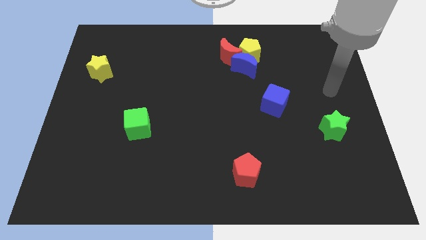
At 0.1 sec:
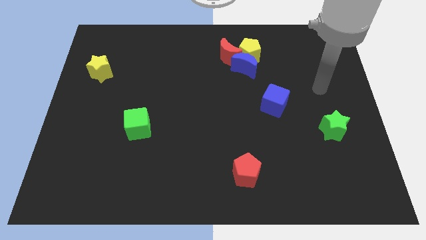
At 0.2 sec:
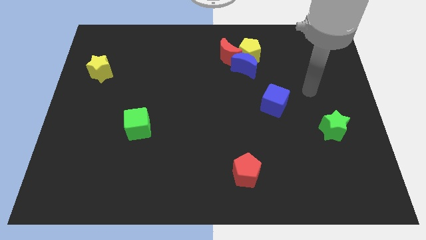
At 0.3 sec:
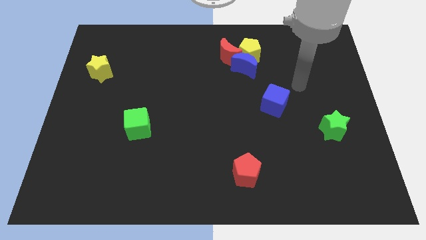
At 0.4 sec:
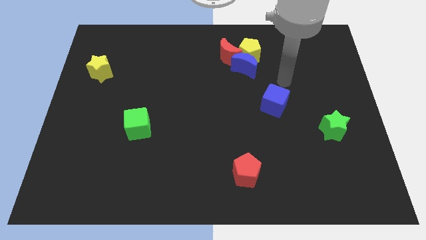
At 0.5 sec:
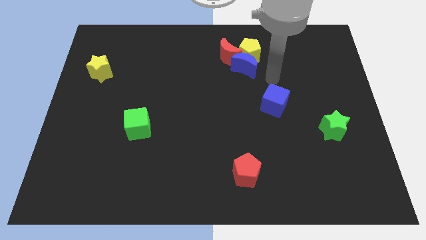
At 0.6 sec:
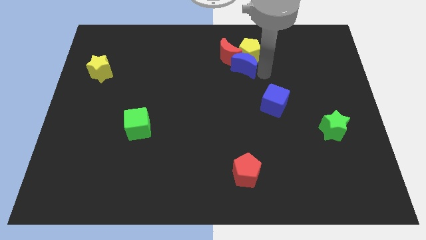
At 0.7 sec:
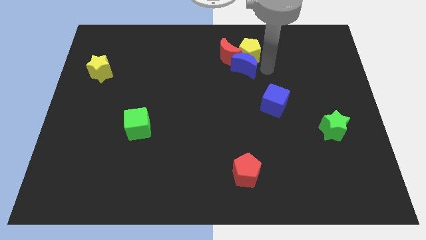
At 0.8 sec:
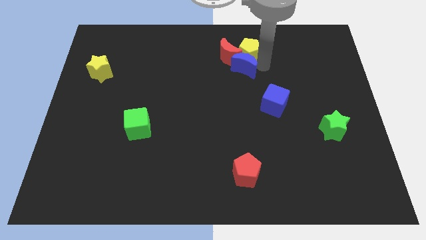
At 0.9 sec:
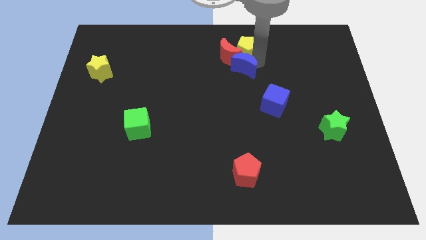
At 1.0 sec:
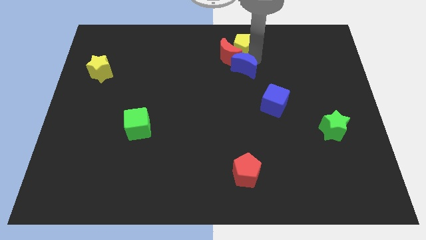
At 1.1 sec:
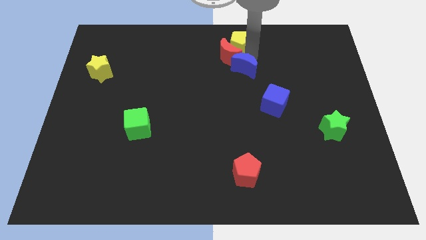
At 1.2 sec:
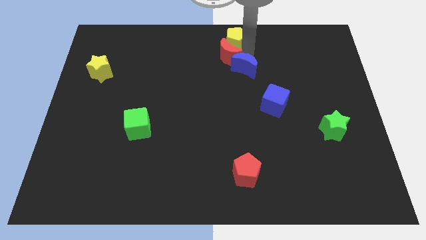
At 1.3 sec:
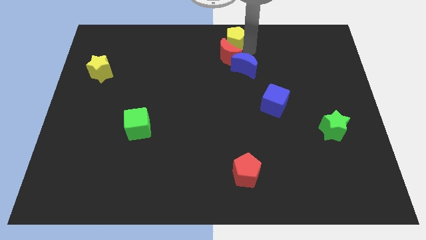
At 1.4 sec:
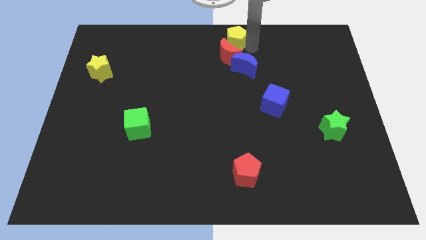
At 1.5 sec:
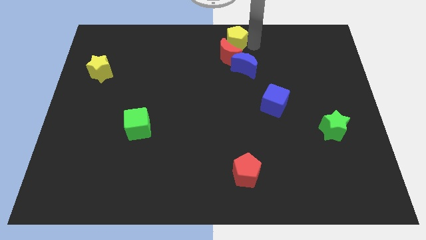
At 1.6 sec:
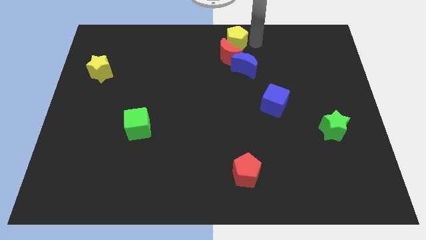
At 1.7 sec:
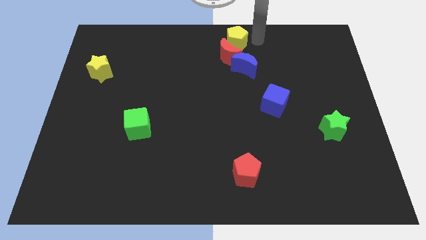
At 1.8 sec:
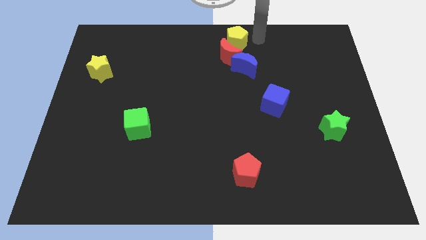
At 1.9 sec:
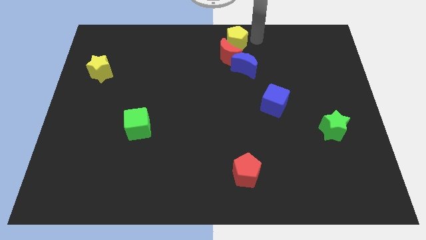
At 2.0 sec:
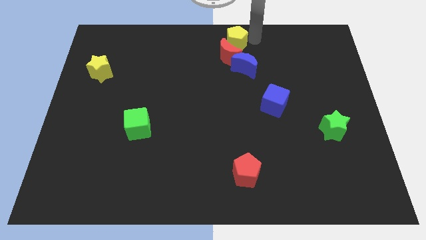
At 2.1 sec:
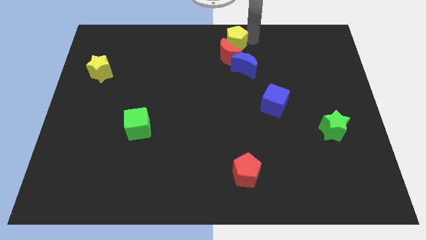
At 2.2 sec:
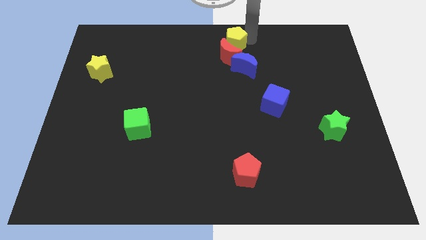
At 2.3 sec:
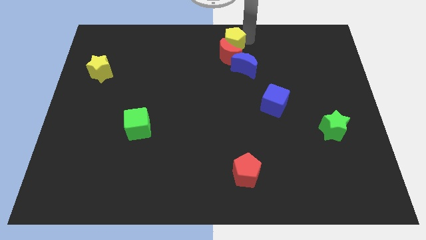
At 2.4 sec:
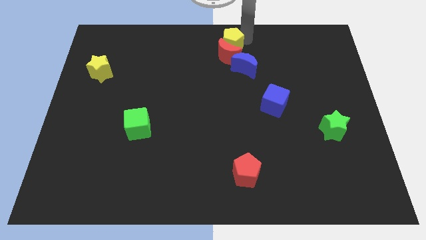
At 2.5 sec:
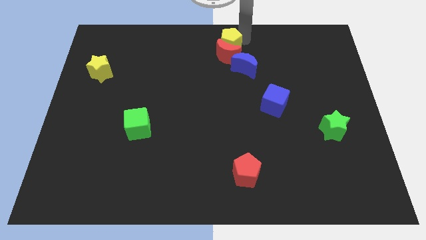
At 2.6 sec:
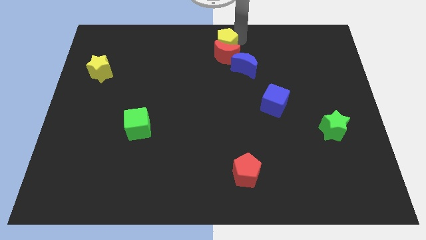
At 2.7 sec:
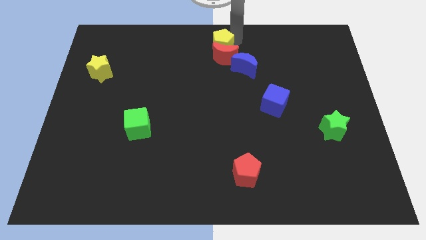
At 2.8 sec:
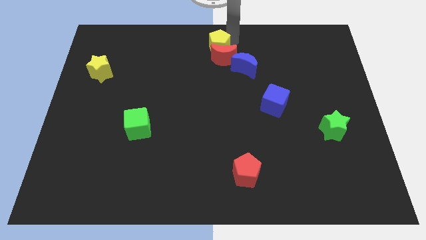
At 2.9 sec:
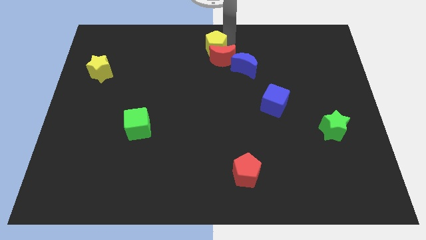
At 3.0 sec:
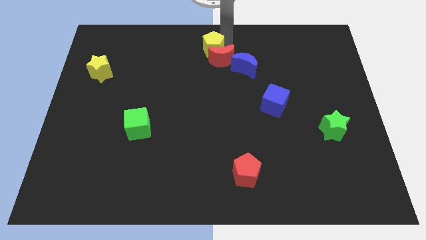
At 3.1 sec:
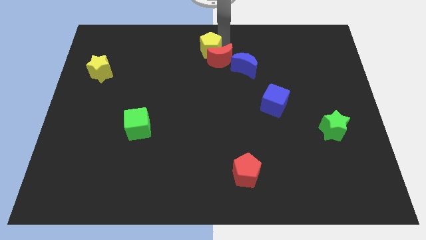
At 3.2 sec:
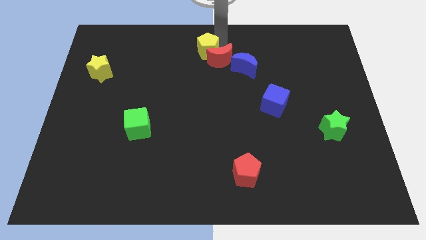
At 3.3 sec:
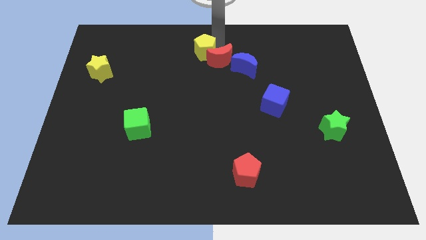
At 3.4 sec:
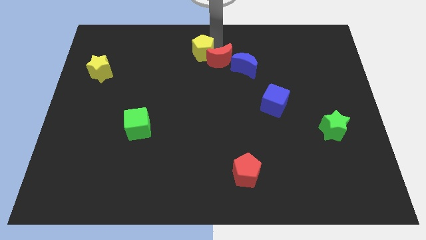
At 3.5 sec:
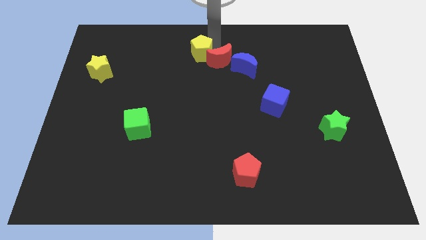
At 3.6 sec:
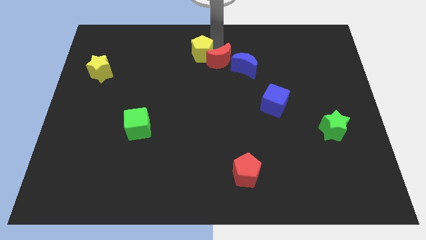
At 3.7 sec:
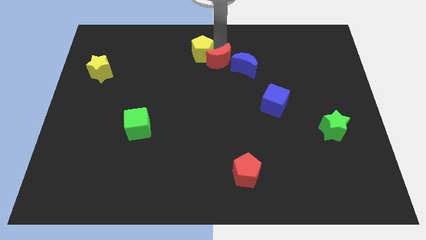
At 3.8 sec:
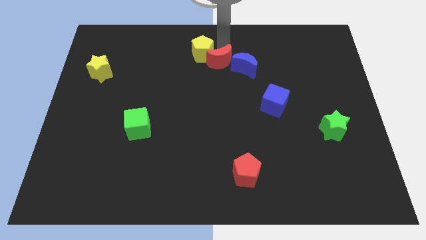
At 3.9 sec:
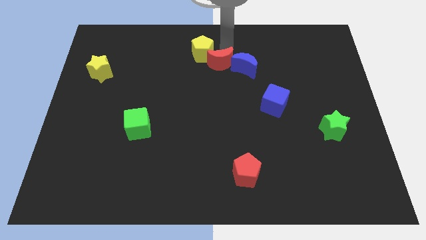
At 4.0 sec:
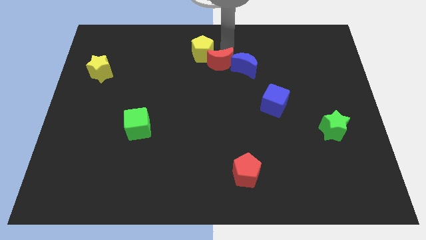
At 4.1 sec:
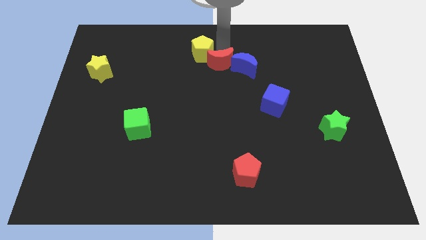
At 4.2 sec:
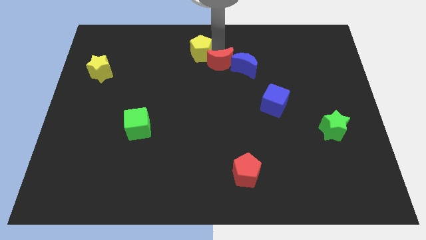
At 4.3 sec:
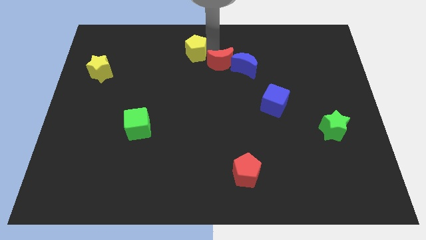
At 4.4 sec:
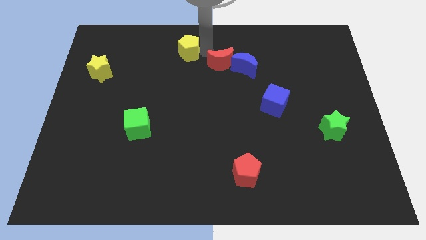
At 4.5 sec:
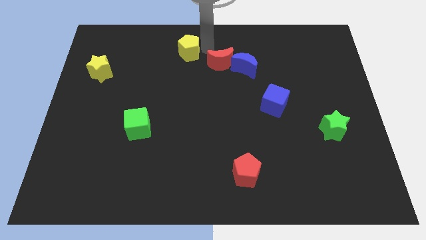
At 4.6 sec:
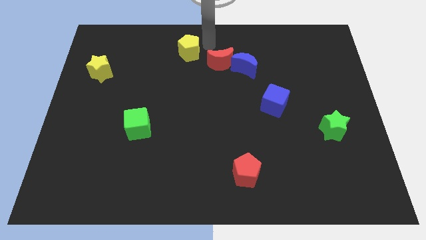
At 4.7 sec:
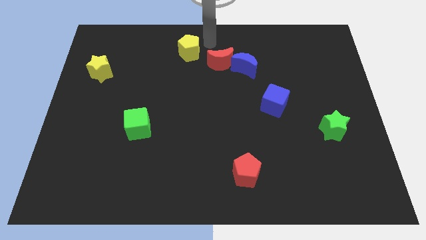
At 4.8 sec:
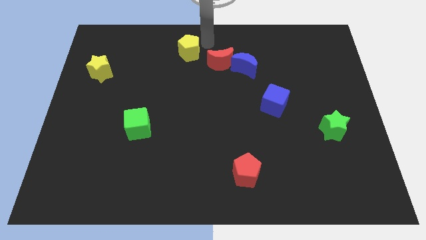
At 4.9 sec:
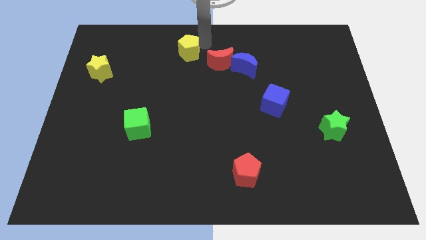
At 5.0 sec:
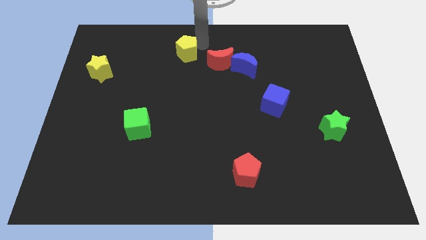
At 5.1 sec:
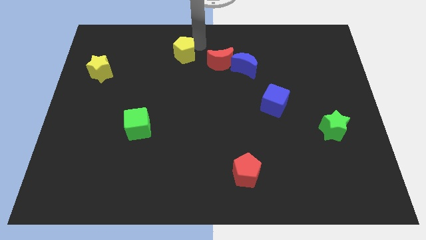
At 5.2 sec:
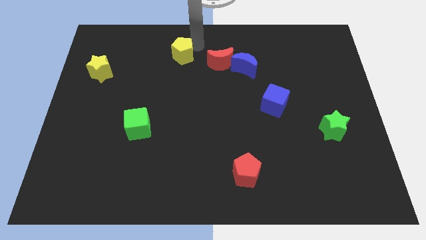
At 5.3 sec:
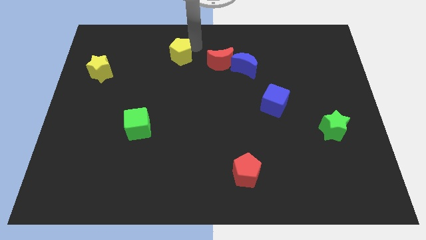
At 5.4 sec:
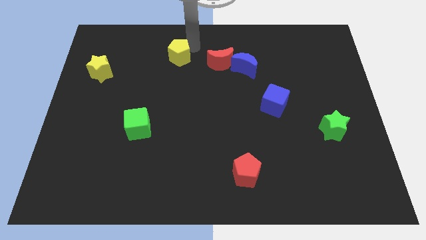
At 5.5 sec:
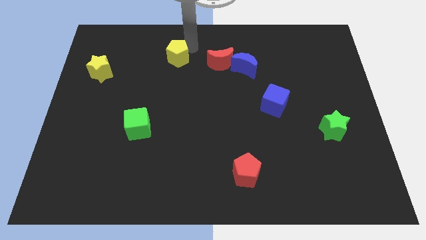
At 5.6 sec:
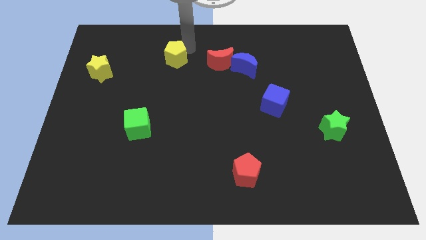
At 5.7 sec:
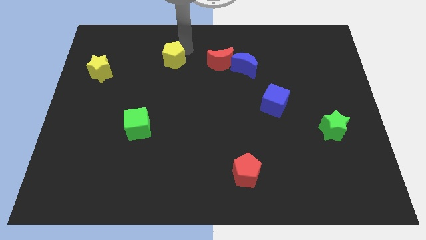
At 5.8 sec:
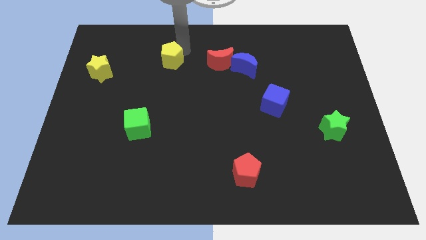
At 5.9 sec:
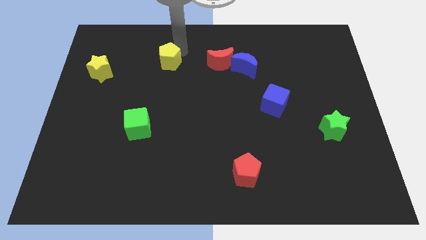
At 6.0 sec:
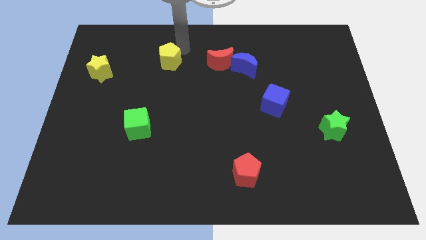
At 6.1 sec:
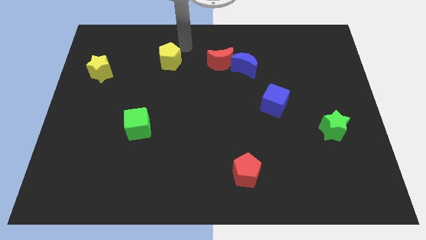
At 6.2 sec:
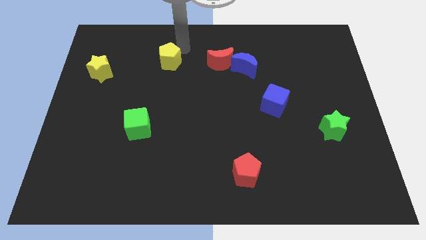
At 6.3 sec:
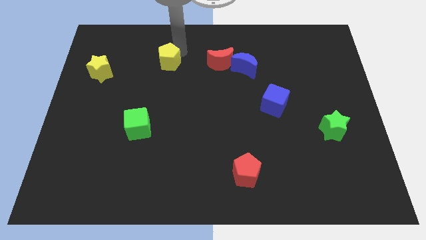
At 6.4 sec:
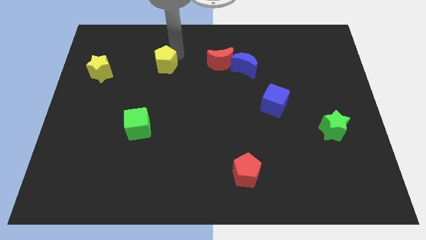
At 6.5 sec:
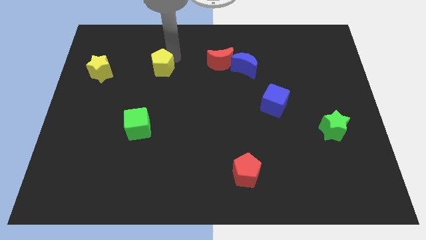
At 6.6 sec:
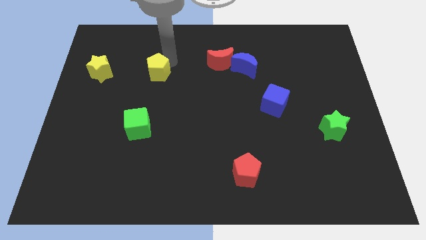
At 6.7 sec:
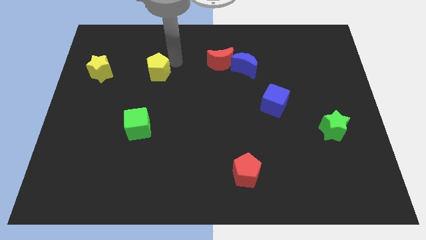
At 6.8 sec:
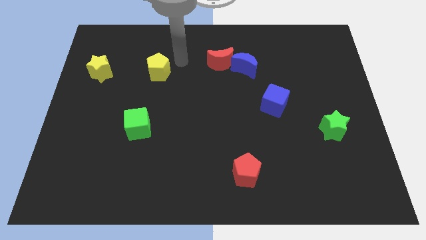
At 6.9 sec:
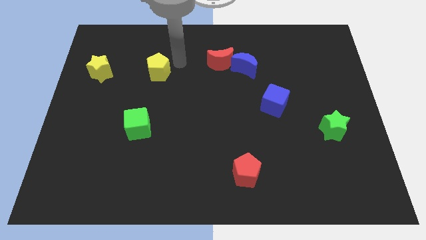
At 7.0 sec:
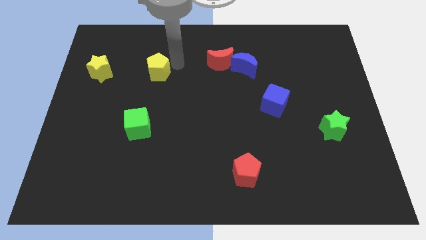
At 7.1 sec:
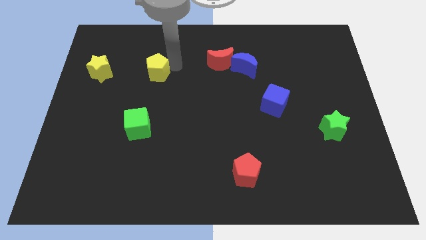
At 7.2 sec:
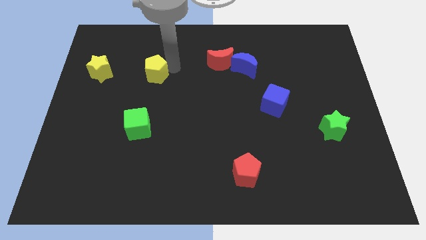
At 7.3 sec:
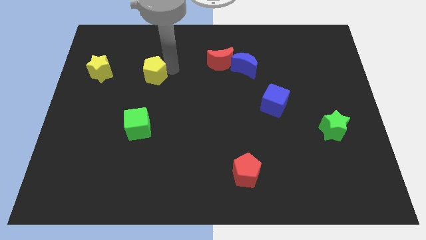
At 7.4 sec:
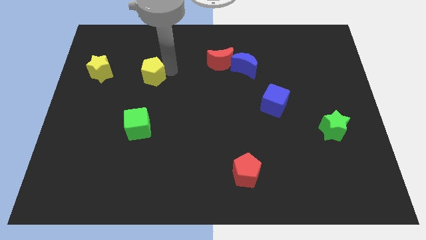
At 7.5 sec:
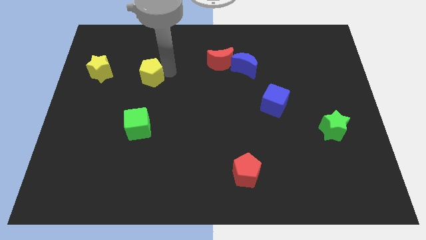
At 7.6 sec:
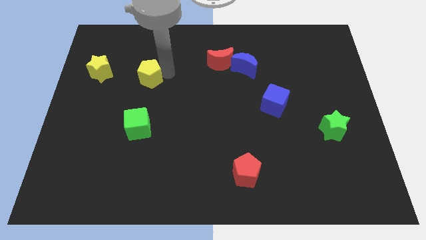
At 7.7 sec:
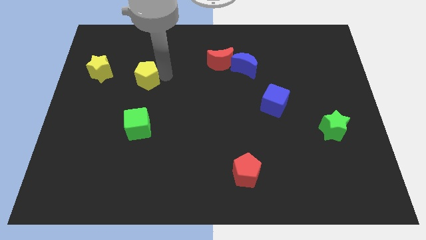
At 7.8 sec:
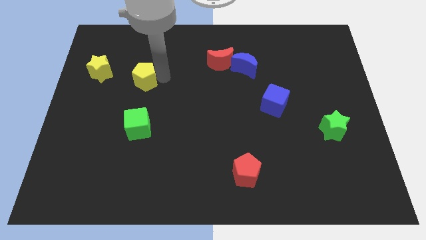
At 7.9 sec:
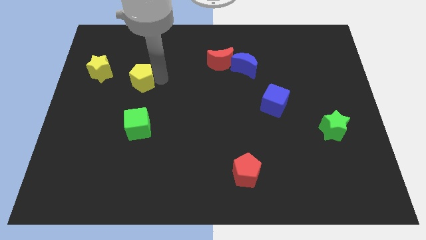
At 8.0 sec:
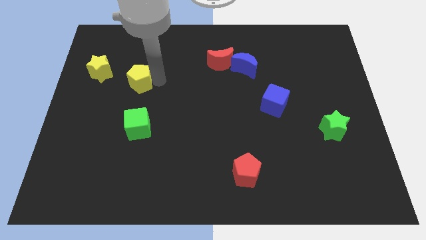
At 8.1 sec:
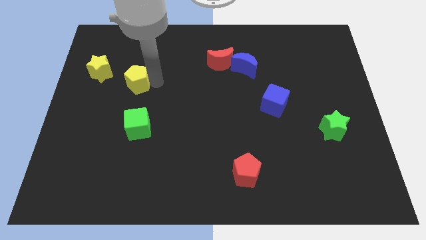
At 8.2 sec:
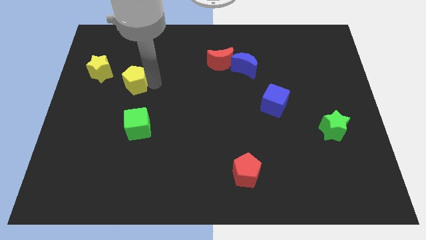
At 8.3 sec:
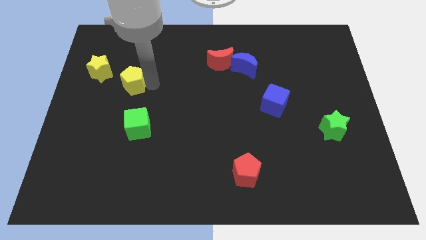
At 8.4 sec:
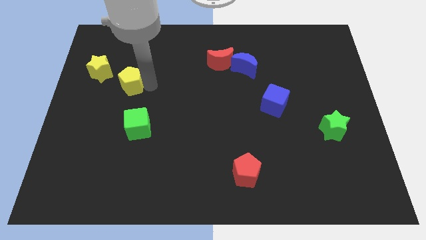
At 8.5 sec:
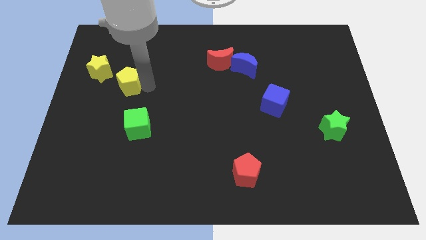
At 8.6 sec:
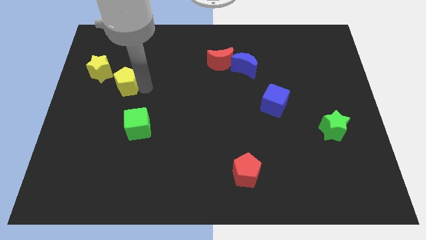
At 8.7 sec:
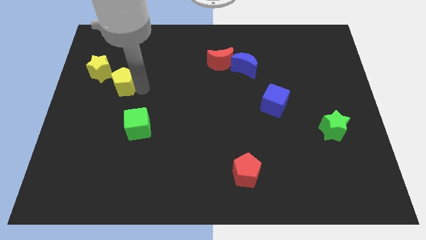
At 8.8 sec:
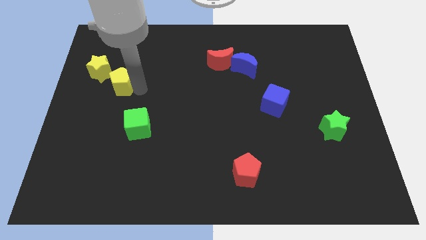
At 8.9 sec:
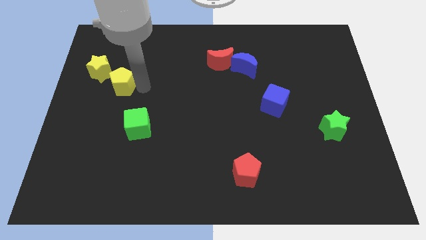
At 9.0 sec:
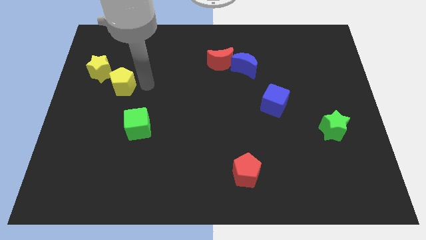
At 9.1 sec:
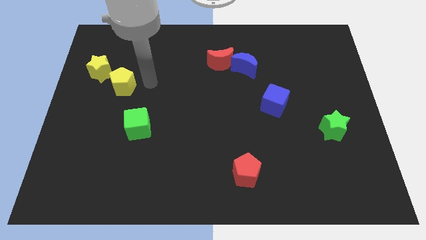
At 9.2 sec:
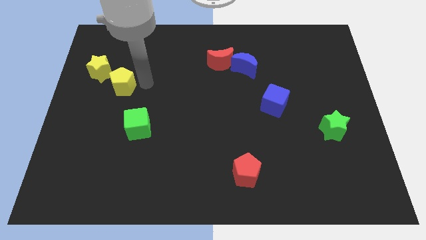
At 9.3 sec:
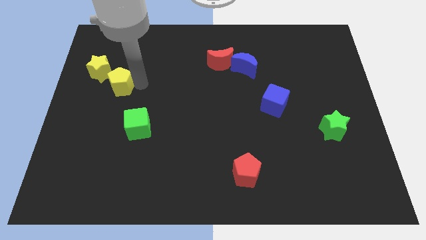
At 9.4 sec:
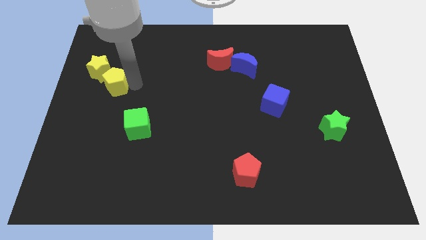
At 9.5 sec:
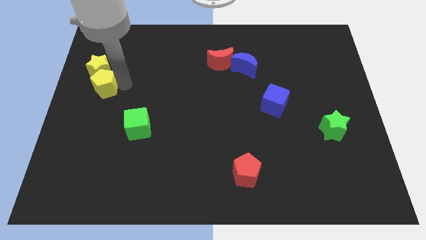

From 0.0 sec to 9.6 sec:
push the yellow pentagon to the center left
